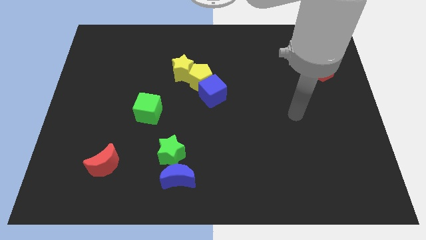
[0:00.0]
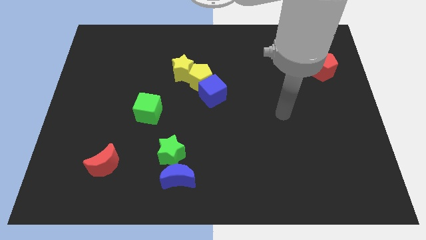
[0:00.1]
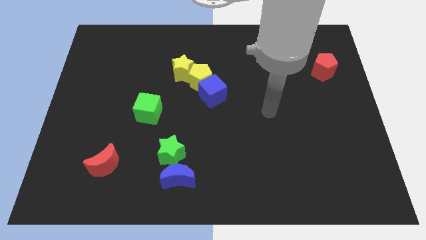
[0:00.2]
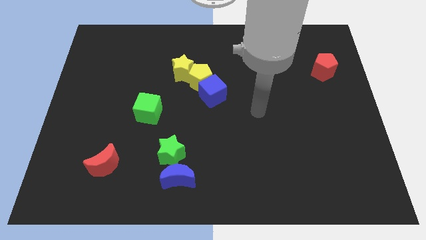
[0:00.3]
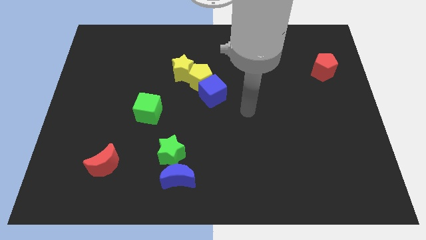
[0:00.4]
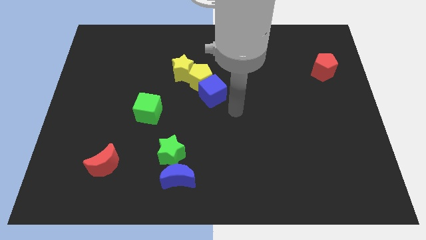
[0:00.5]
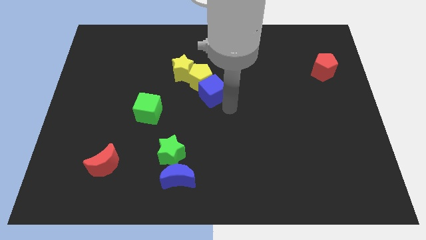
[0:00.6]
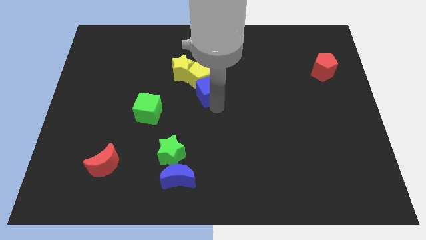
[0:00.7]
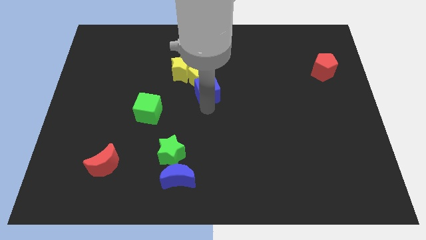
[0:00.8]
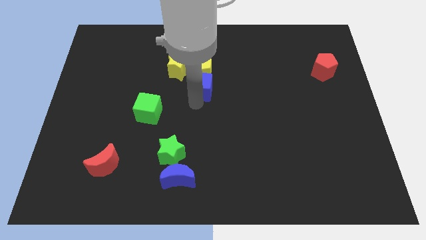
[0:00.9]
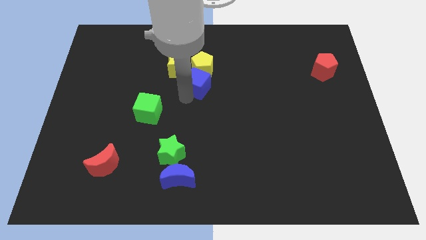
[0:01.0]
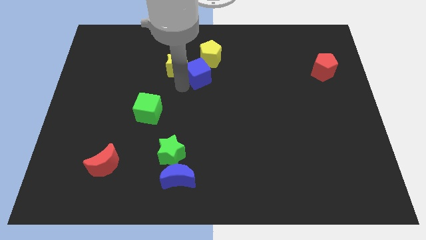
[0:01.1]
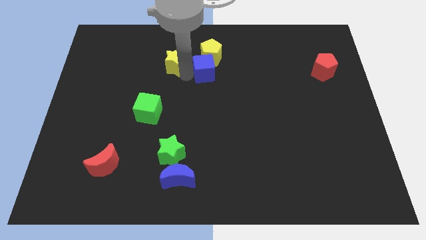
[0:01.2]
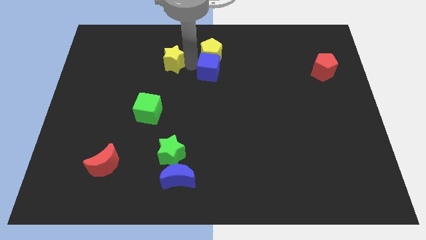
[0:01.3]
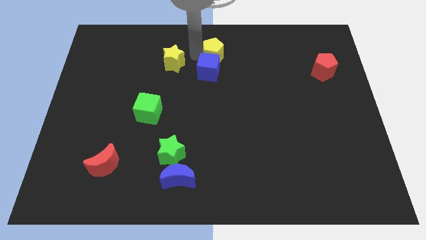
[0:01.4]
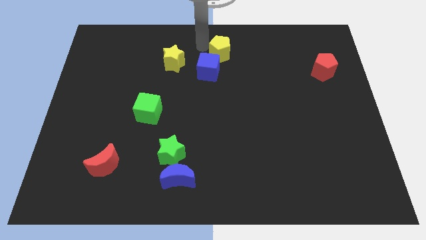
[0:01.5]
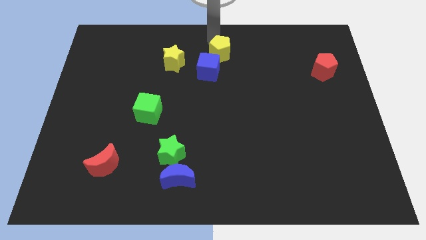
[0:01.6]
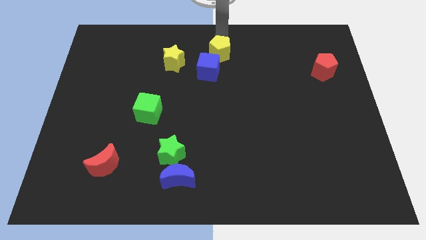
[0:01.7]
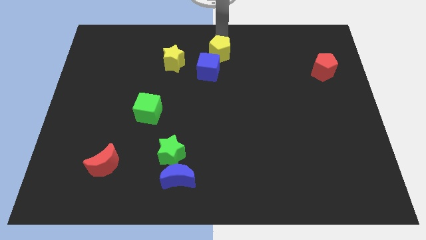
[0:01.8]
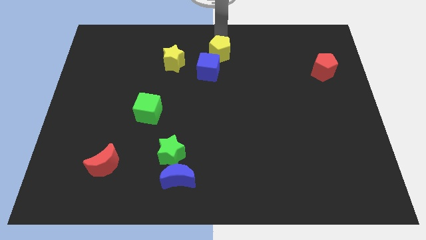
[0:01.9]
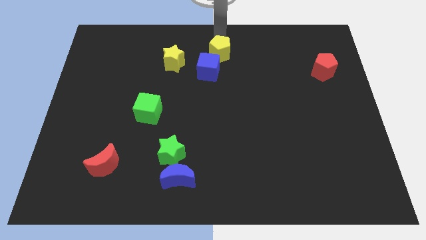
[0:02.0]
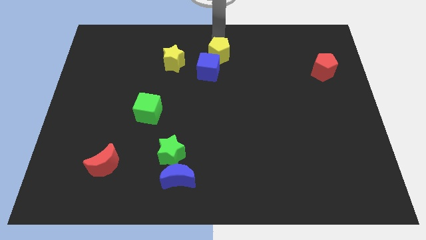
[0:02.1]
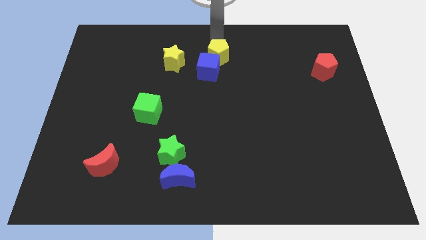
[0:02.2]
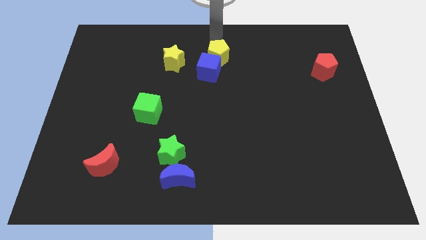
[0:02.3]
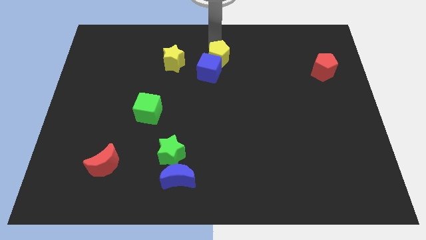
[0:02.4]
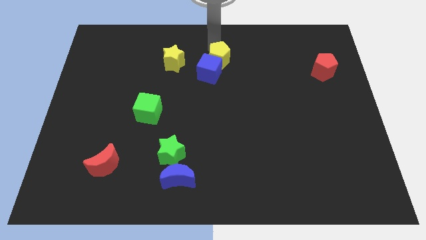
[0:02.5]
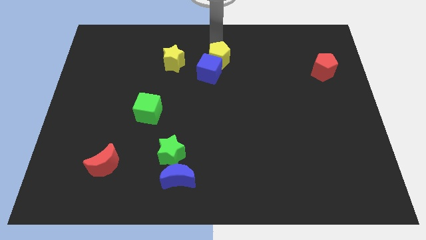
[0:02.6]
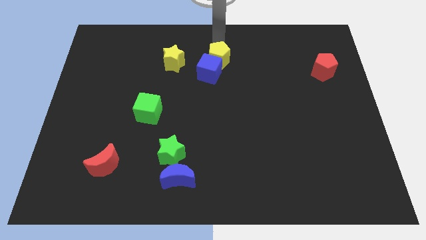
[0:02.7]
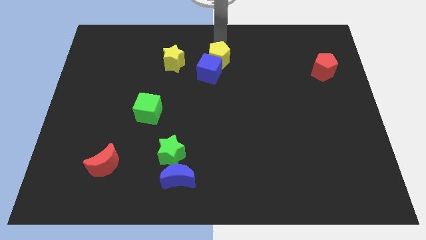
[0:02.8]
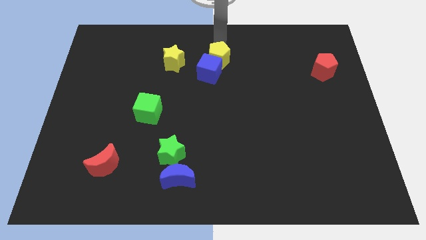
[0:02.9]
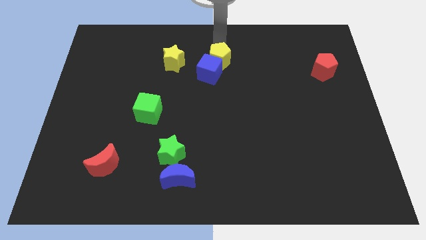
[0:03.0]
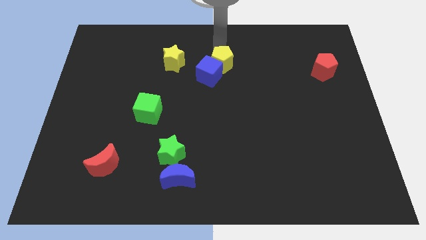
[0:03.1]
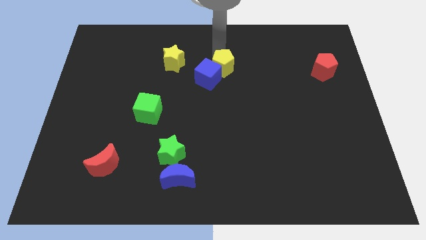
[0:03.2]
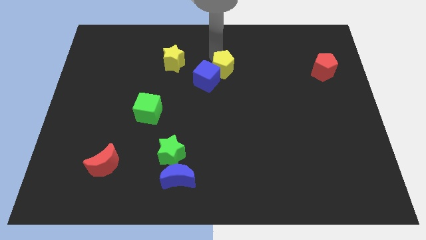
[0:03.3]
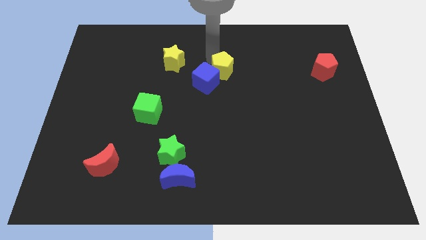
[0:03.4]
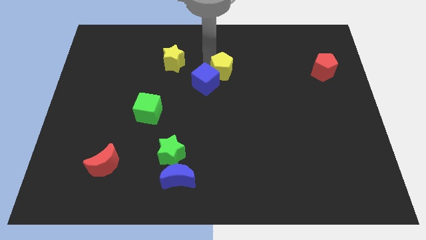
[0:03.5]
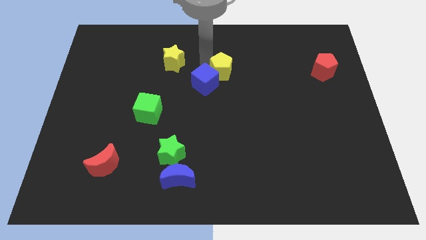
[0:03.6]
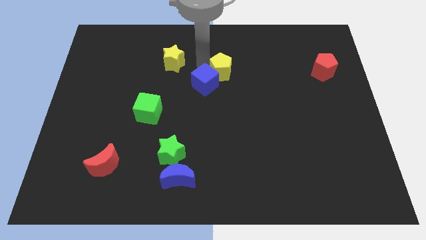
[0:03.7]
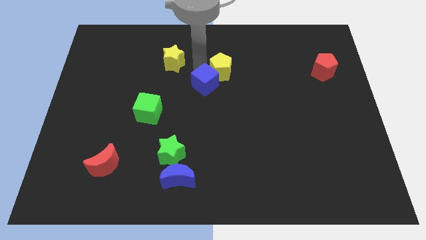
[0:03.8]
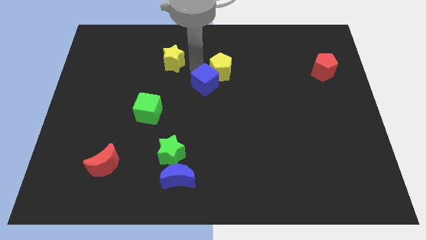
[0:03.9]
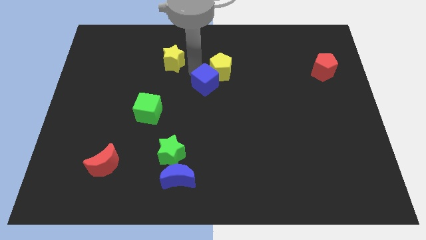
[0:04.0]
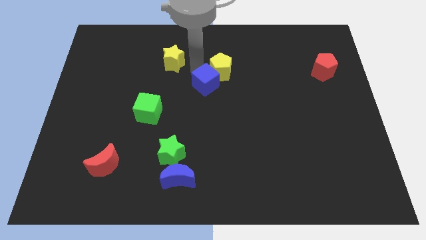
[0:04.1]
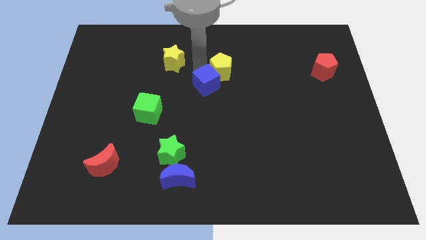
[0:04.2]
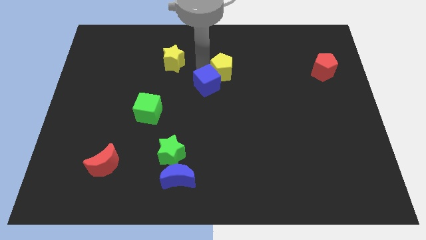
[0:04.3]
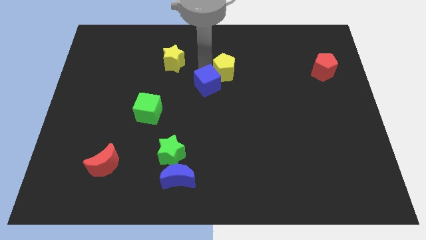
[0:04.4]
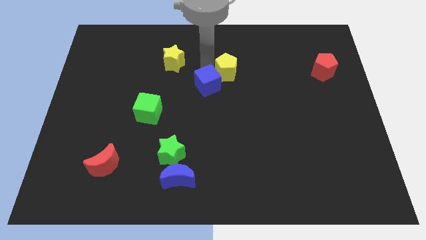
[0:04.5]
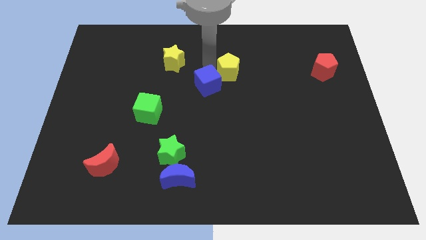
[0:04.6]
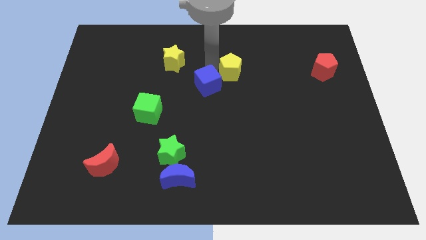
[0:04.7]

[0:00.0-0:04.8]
pull the yellow pentagon apart from the yellow star and blue cube

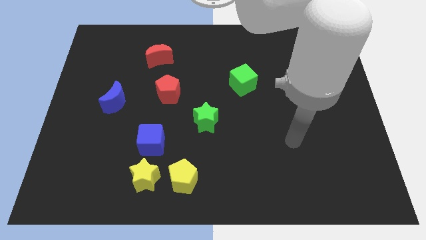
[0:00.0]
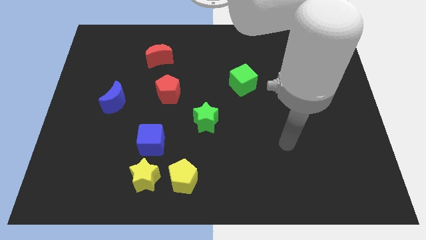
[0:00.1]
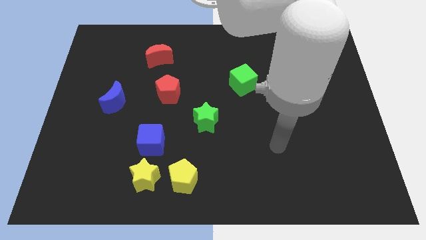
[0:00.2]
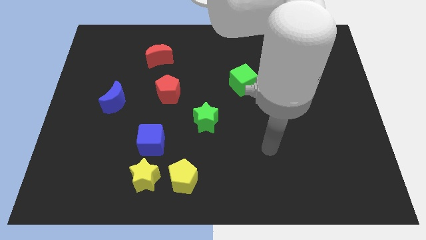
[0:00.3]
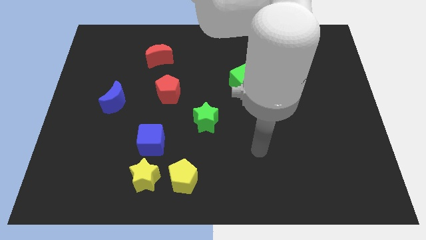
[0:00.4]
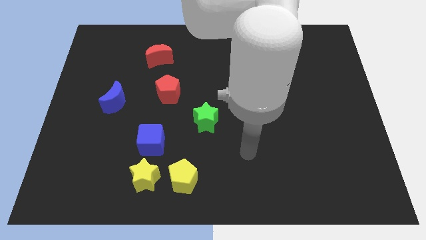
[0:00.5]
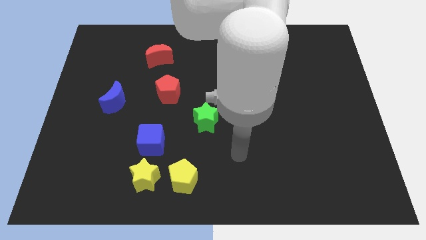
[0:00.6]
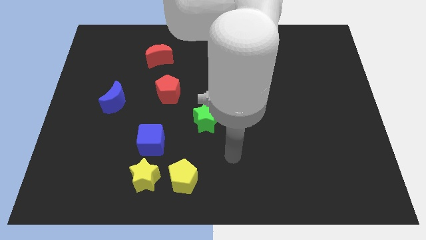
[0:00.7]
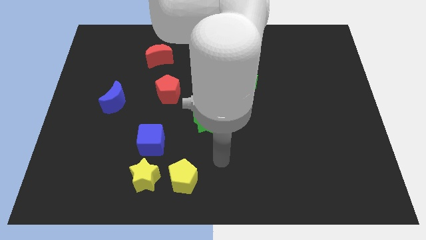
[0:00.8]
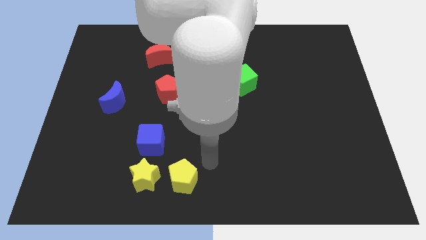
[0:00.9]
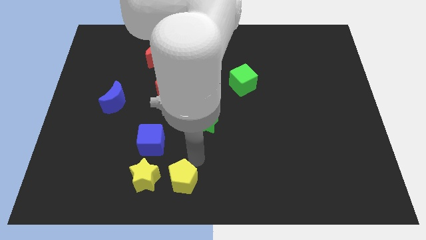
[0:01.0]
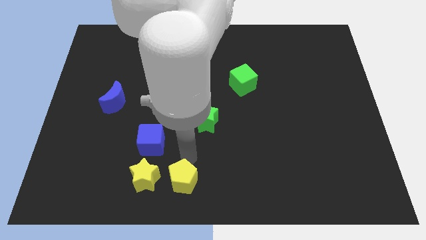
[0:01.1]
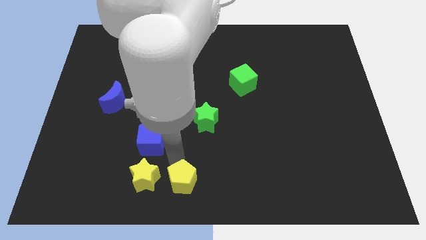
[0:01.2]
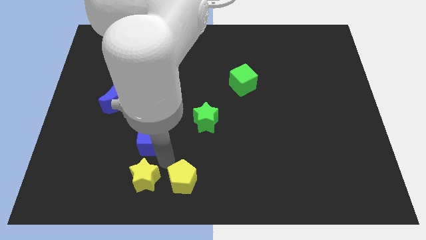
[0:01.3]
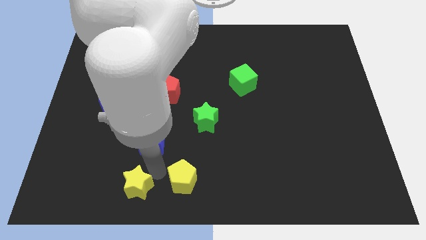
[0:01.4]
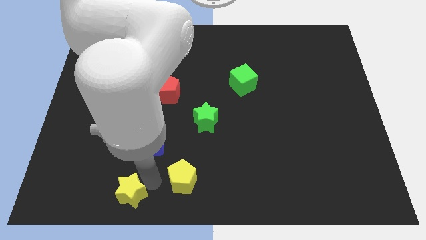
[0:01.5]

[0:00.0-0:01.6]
separate the yellow pentagon from the yellow star

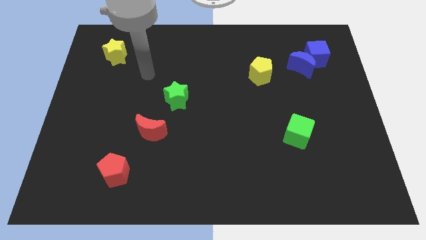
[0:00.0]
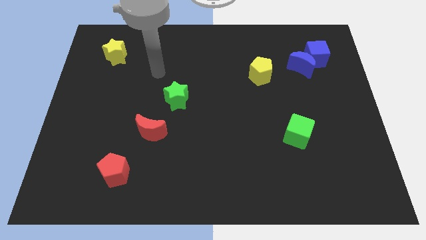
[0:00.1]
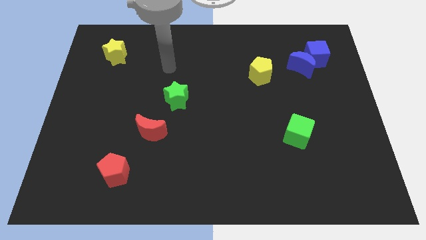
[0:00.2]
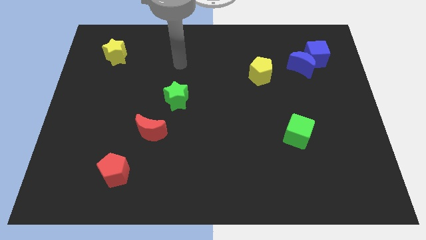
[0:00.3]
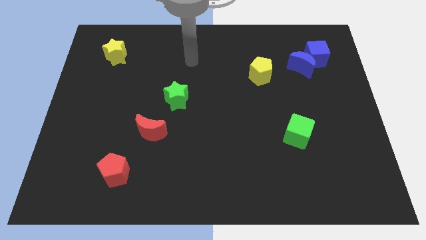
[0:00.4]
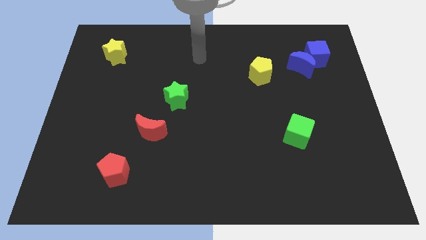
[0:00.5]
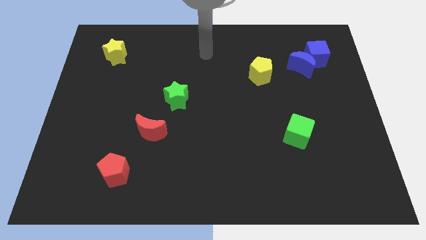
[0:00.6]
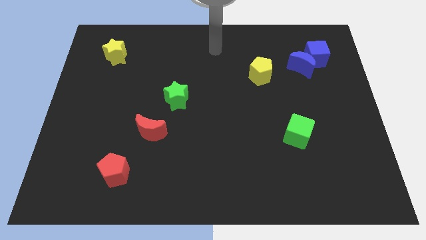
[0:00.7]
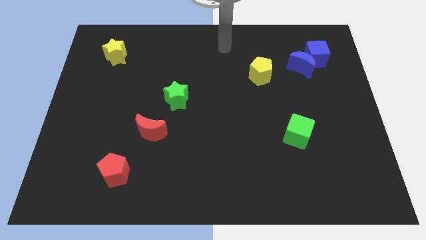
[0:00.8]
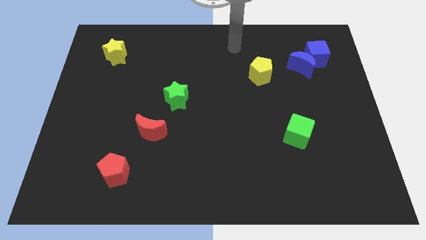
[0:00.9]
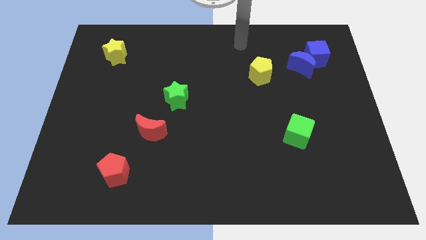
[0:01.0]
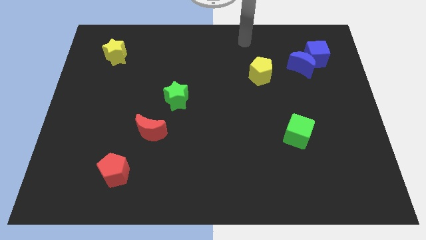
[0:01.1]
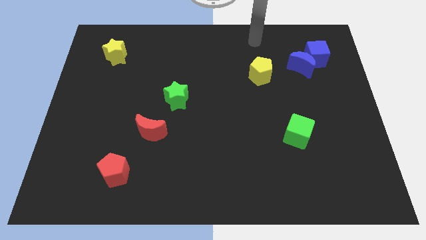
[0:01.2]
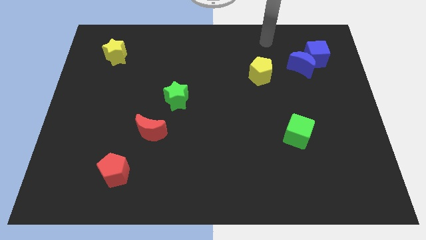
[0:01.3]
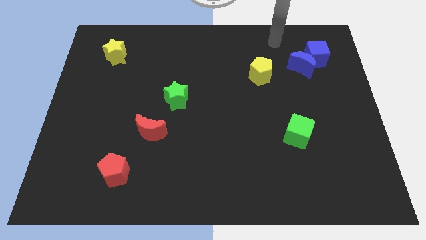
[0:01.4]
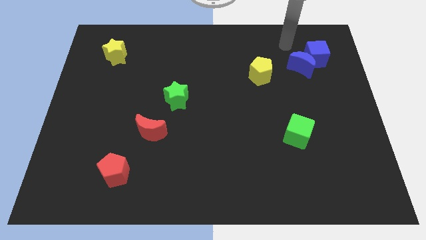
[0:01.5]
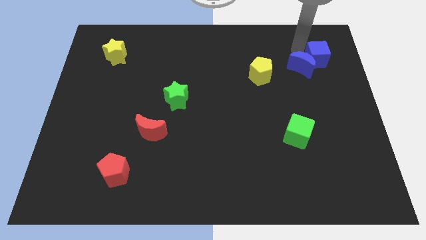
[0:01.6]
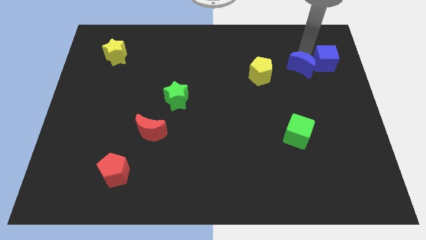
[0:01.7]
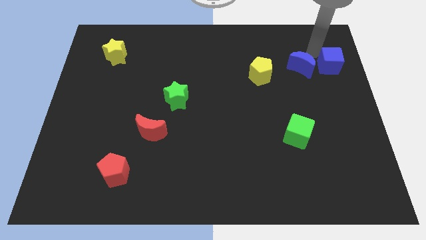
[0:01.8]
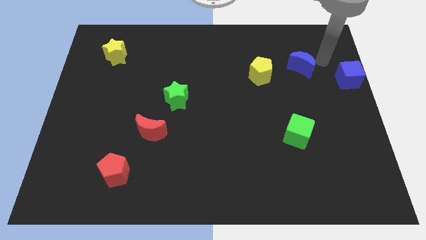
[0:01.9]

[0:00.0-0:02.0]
move the blue moon away from the blue cube

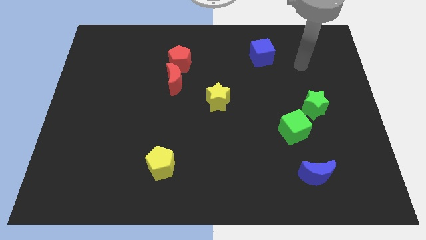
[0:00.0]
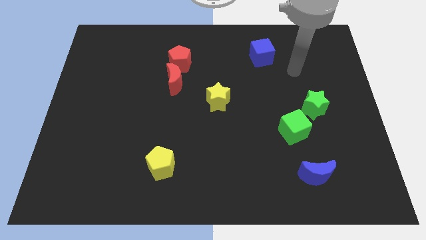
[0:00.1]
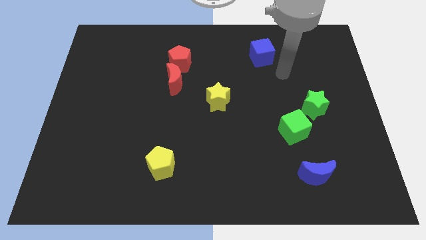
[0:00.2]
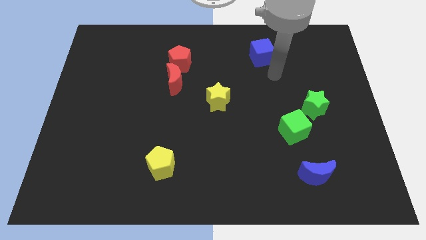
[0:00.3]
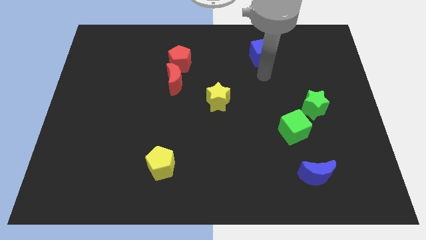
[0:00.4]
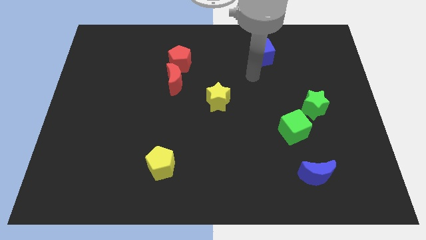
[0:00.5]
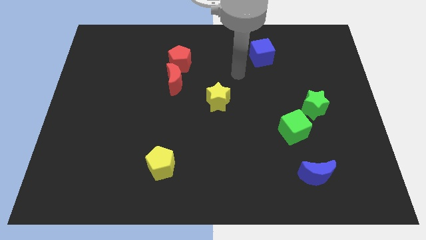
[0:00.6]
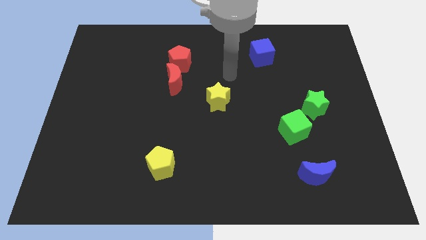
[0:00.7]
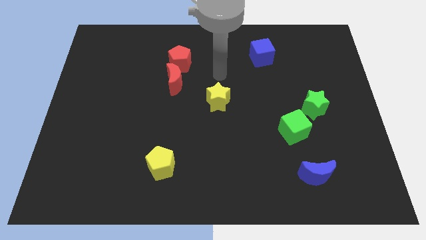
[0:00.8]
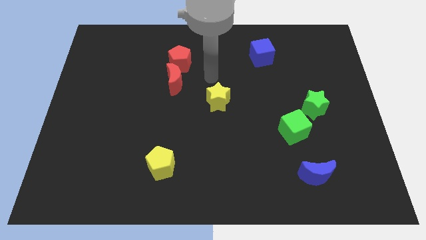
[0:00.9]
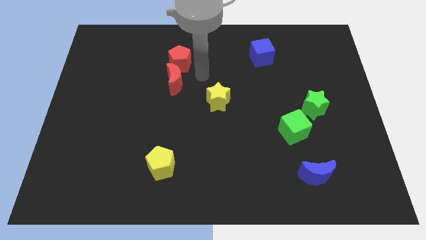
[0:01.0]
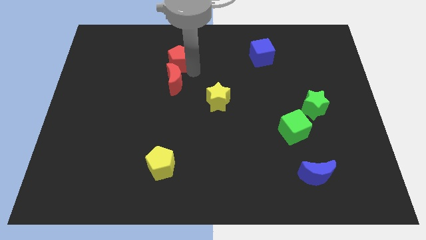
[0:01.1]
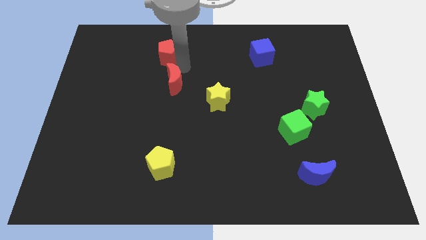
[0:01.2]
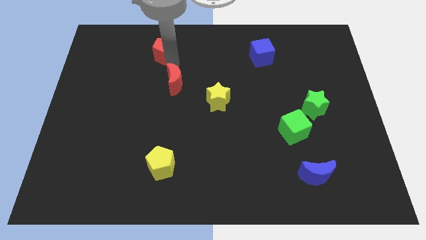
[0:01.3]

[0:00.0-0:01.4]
separate the red moon from the red pentagon
